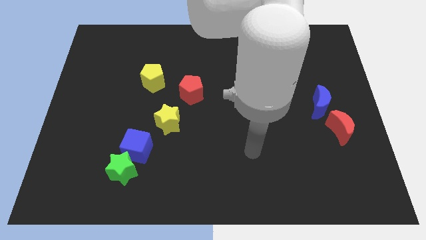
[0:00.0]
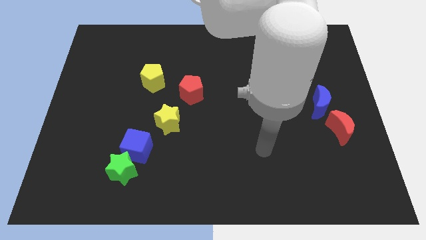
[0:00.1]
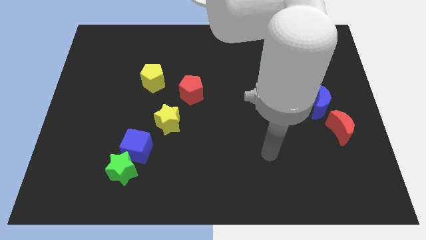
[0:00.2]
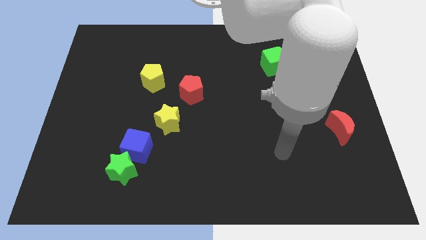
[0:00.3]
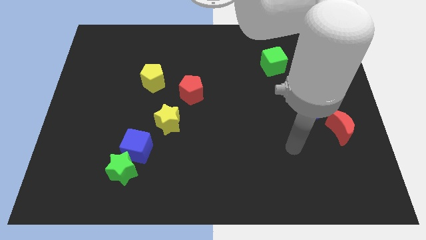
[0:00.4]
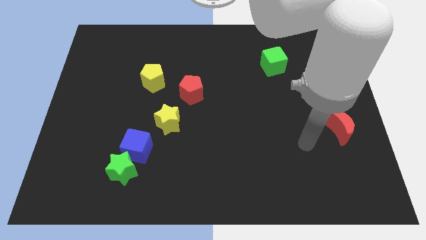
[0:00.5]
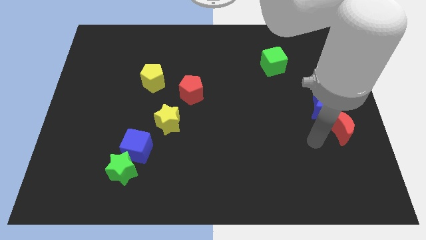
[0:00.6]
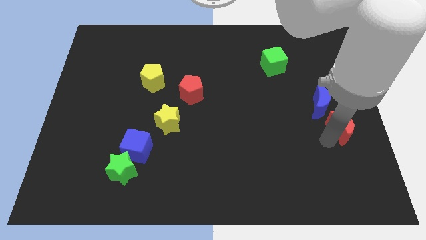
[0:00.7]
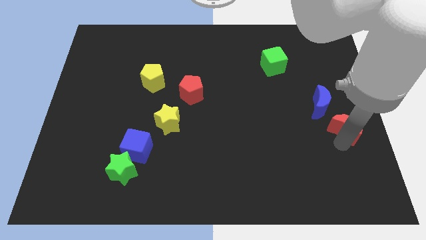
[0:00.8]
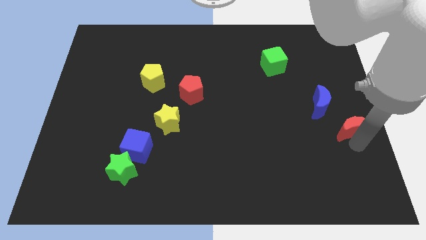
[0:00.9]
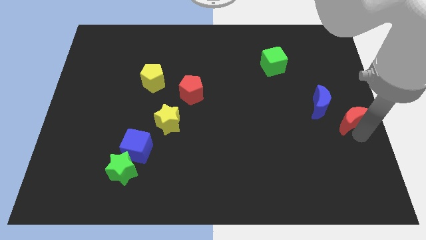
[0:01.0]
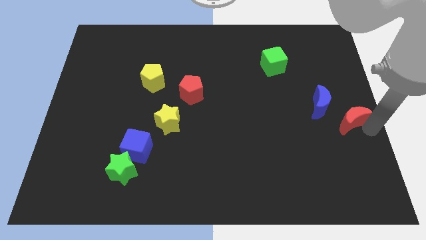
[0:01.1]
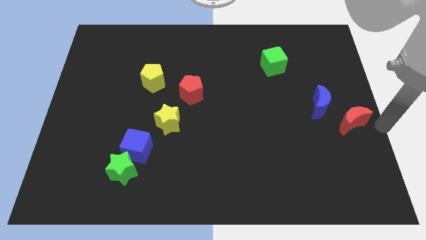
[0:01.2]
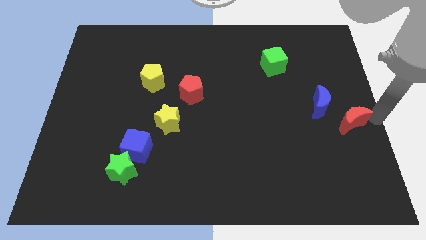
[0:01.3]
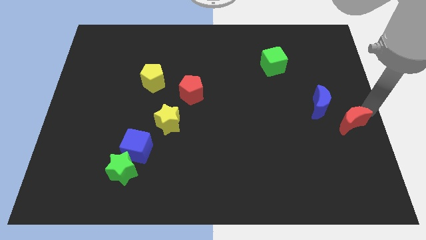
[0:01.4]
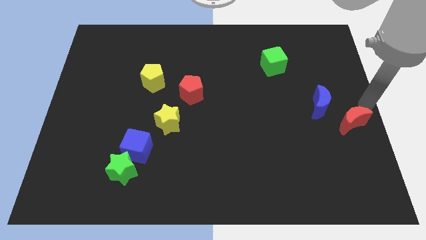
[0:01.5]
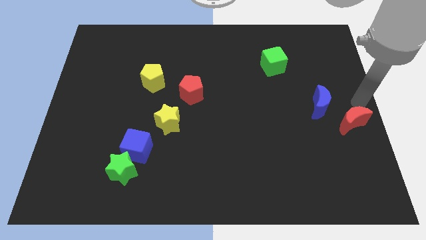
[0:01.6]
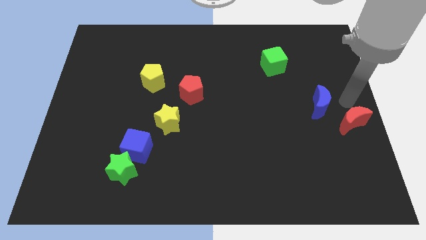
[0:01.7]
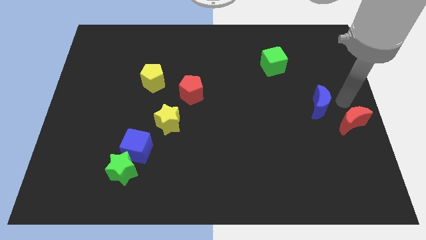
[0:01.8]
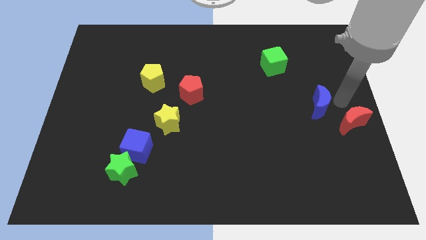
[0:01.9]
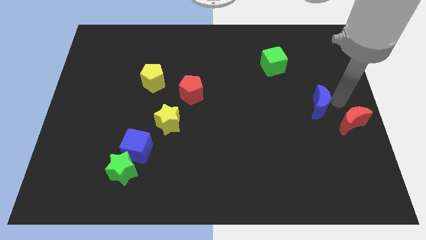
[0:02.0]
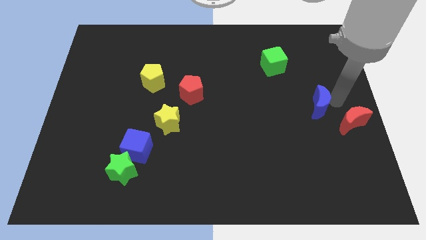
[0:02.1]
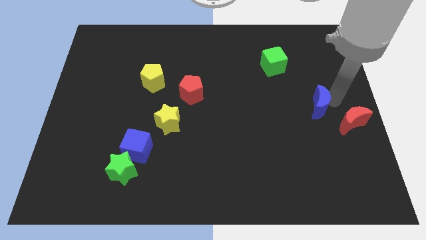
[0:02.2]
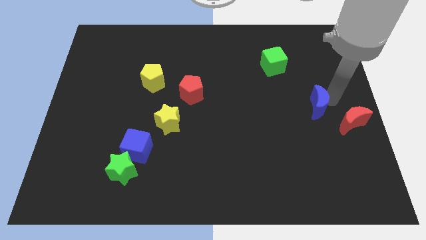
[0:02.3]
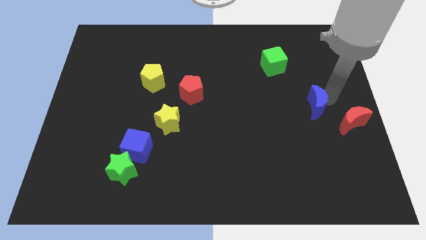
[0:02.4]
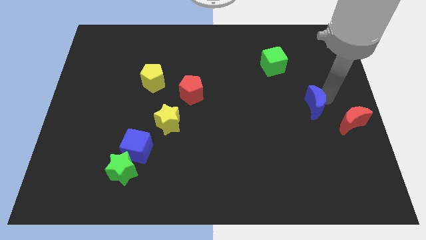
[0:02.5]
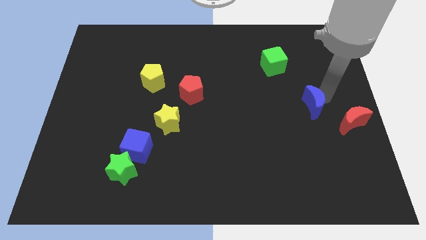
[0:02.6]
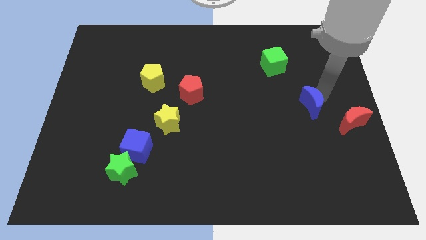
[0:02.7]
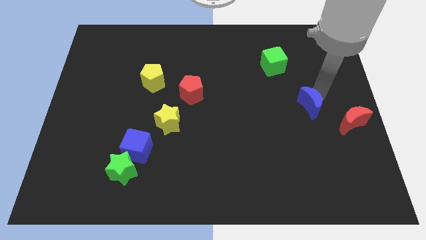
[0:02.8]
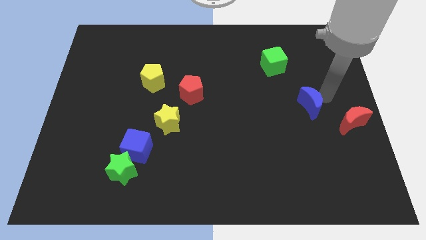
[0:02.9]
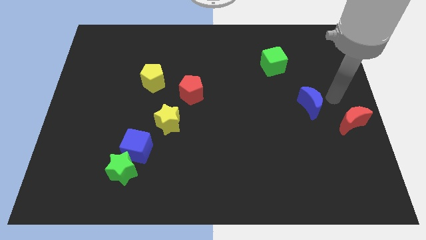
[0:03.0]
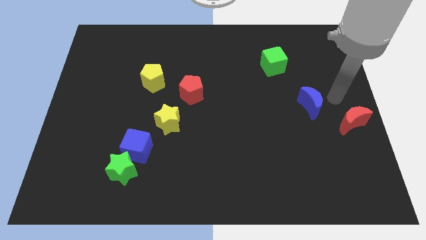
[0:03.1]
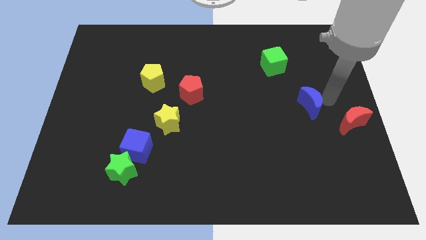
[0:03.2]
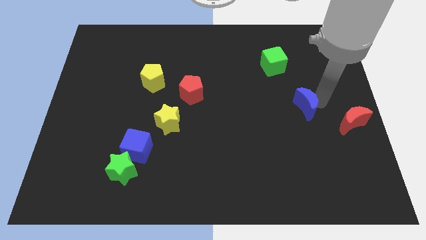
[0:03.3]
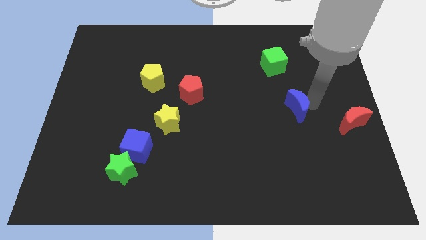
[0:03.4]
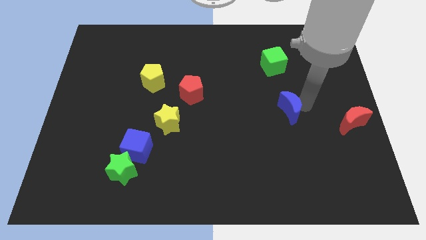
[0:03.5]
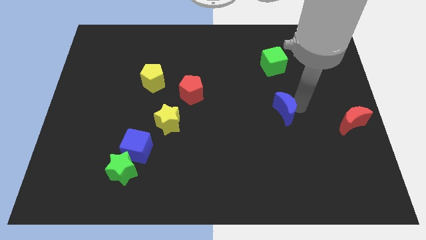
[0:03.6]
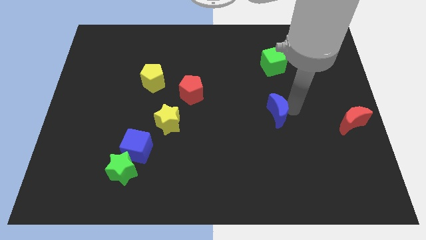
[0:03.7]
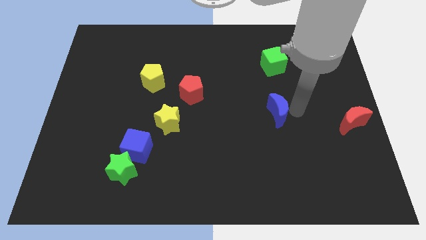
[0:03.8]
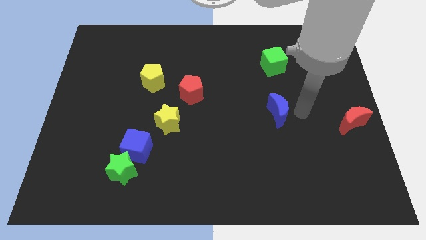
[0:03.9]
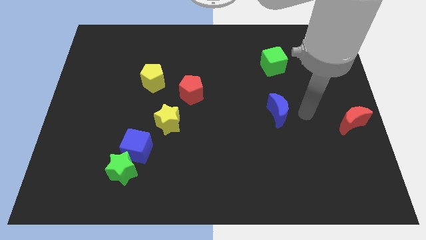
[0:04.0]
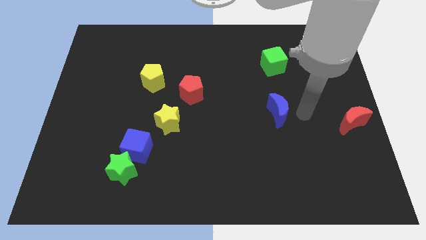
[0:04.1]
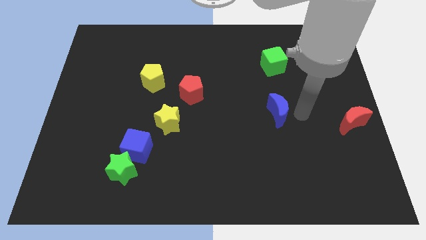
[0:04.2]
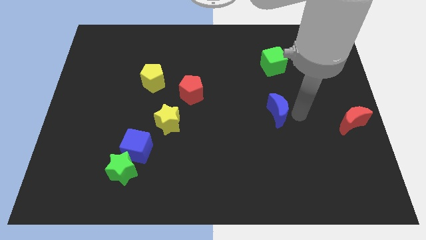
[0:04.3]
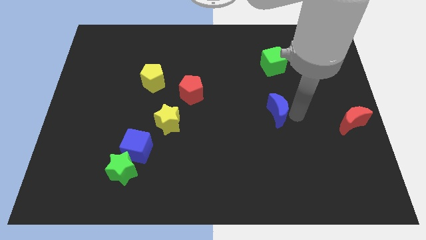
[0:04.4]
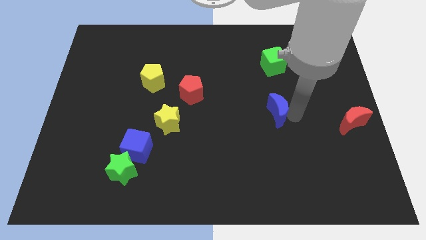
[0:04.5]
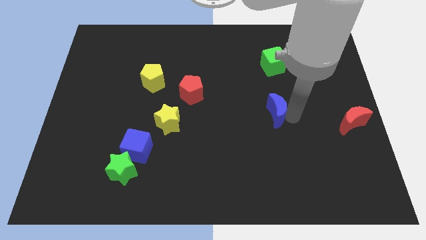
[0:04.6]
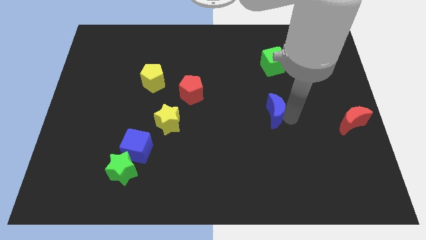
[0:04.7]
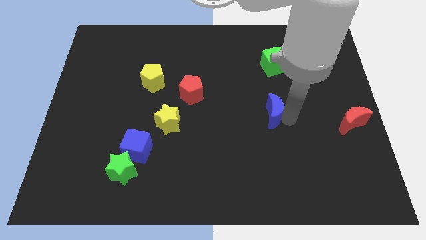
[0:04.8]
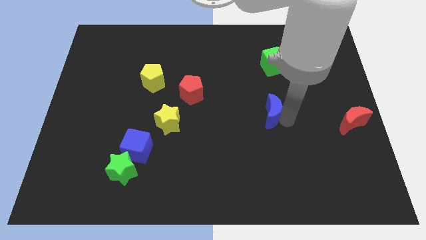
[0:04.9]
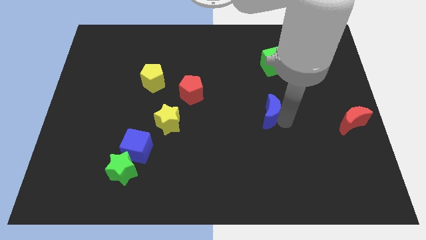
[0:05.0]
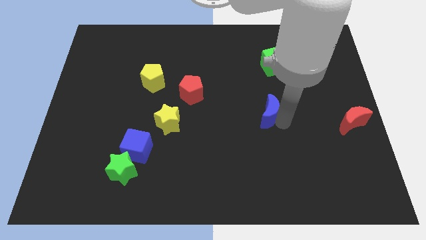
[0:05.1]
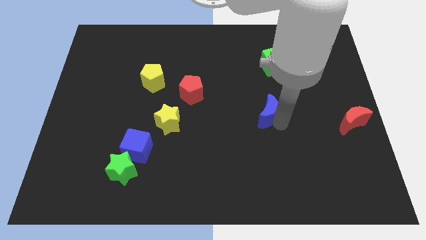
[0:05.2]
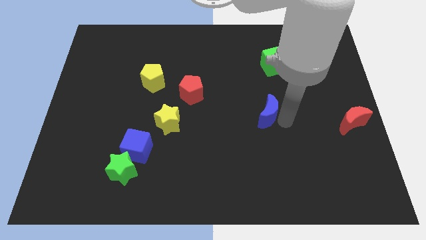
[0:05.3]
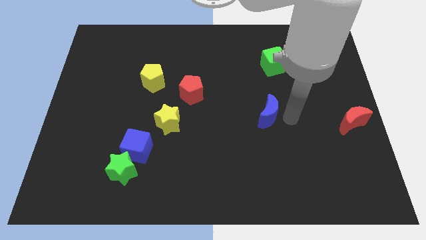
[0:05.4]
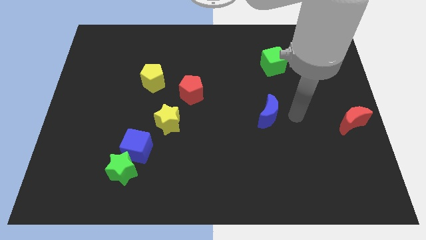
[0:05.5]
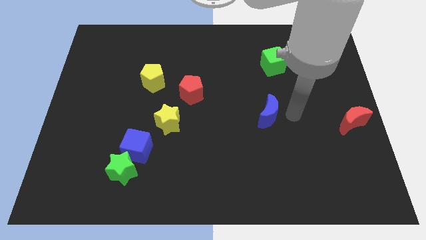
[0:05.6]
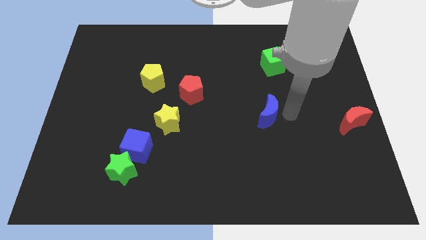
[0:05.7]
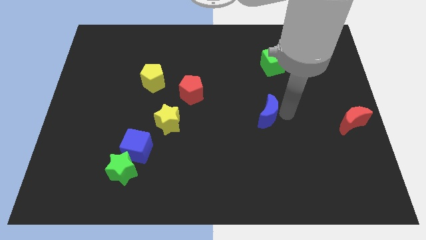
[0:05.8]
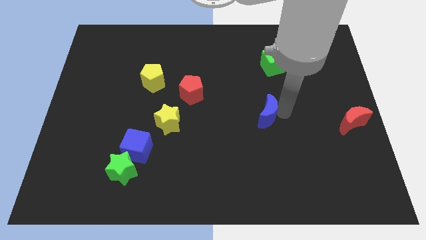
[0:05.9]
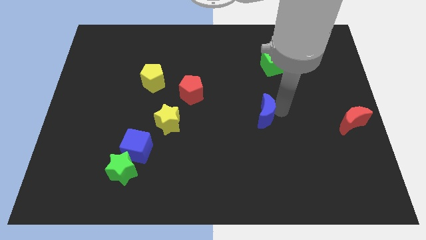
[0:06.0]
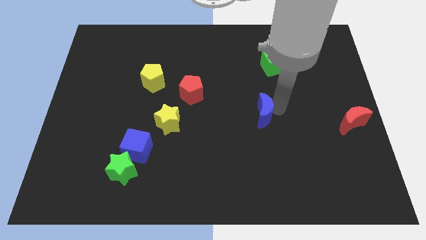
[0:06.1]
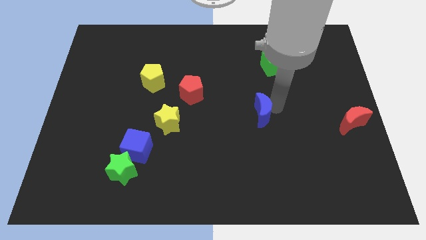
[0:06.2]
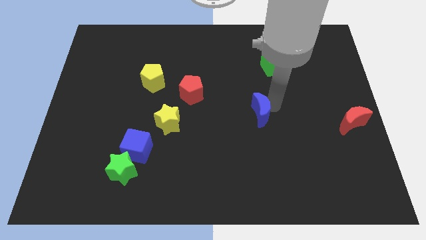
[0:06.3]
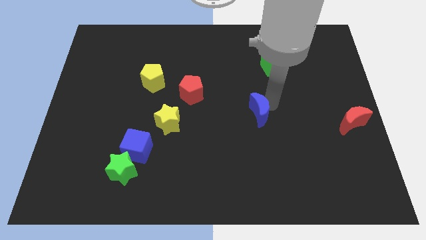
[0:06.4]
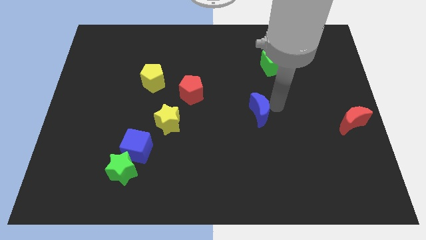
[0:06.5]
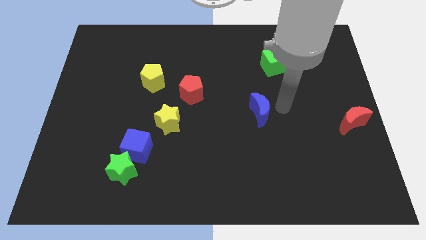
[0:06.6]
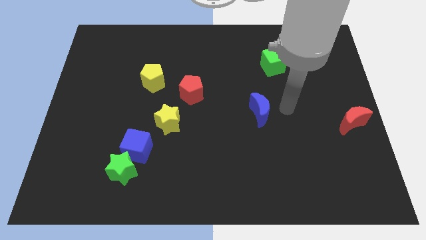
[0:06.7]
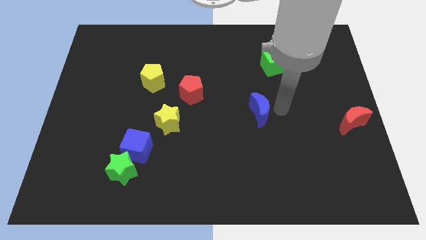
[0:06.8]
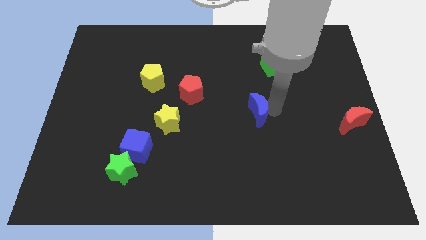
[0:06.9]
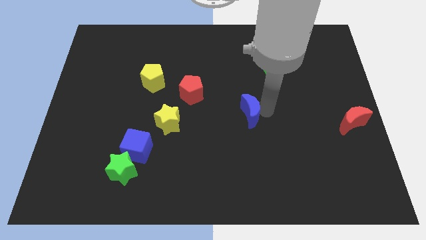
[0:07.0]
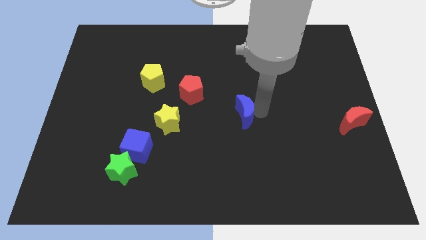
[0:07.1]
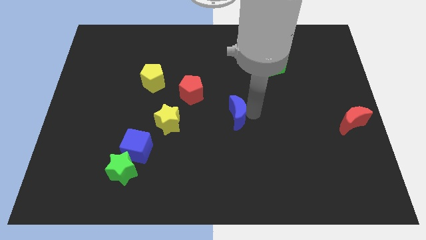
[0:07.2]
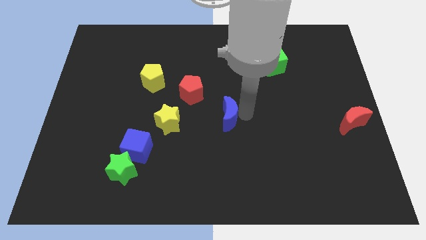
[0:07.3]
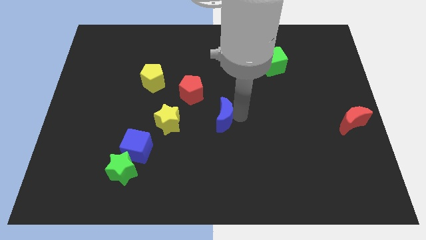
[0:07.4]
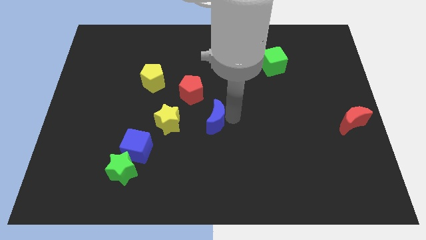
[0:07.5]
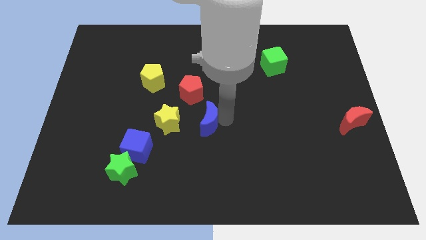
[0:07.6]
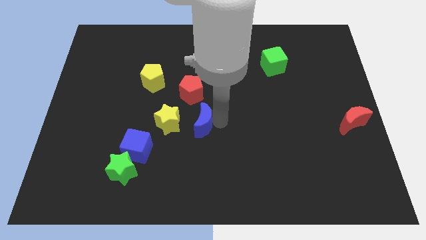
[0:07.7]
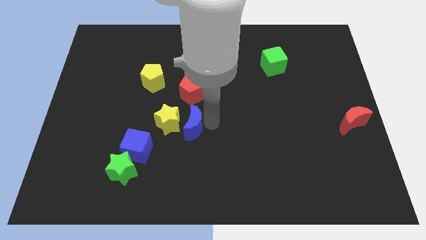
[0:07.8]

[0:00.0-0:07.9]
slide the blue moon close to the yellow star

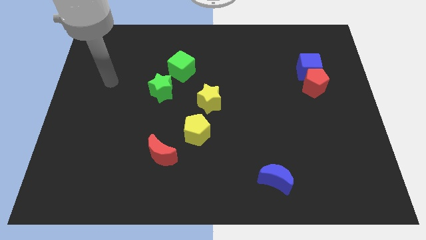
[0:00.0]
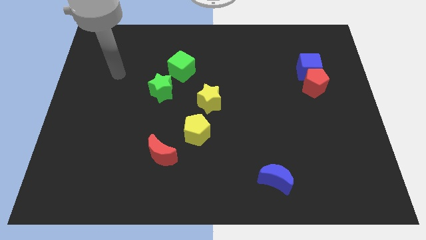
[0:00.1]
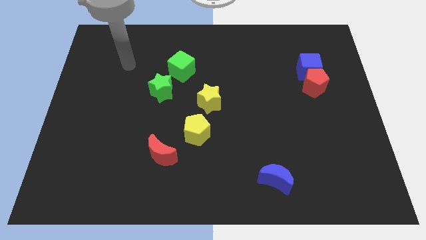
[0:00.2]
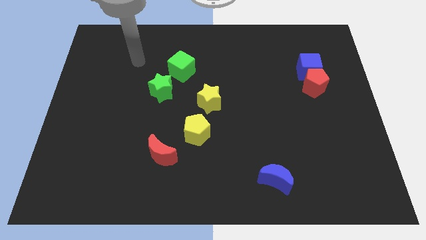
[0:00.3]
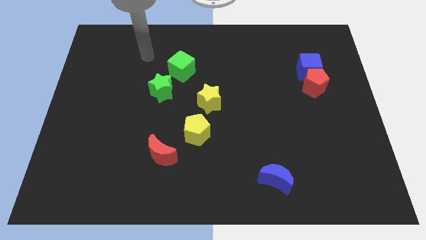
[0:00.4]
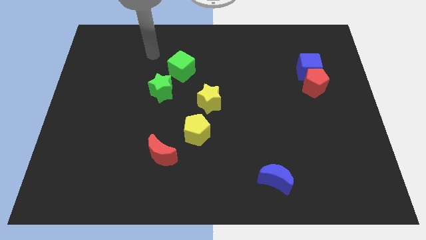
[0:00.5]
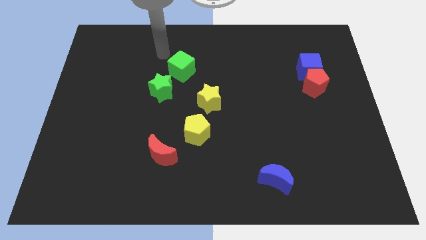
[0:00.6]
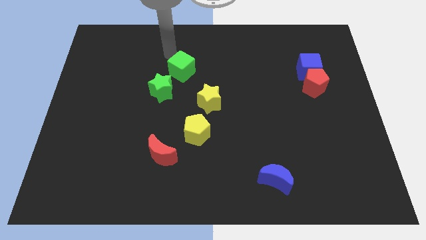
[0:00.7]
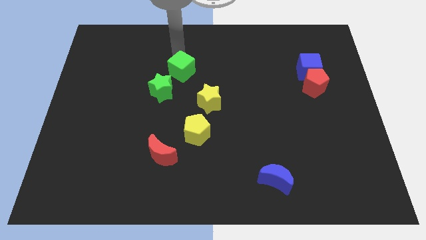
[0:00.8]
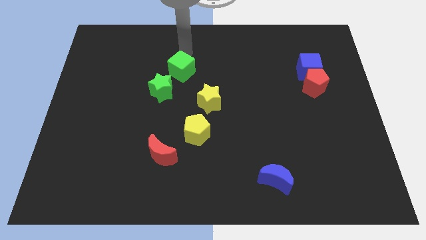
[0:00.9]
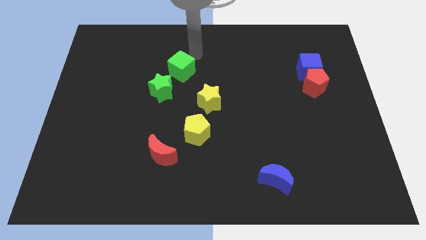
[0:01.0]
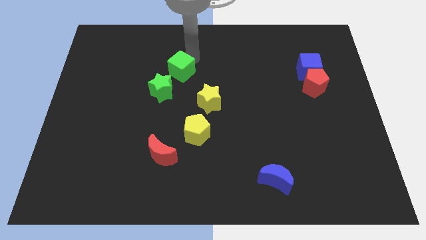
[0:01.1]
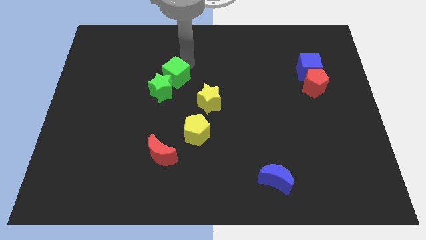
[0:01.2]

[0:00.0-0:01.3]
slide the green cube close to the green star
